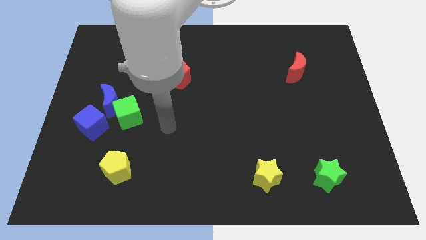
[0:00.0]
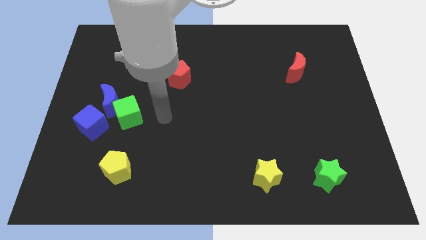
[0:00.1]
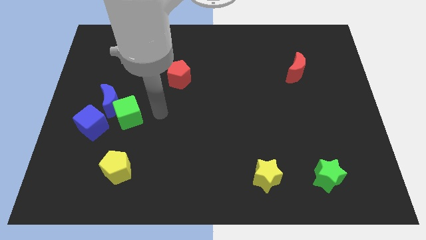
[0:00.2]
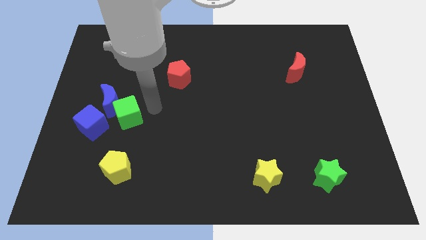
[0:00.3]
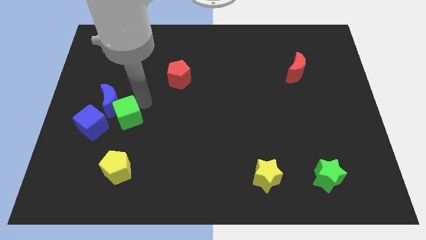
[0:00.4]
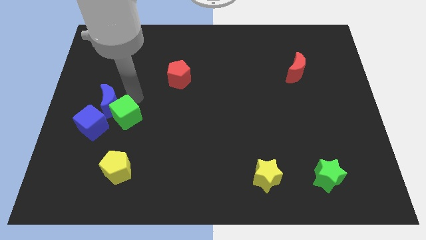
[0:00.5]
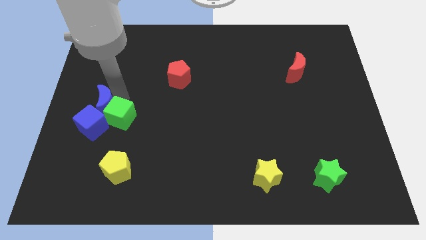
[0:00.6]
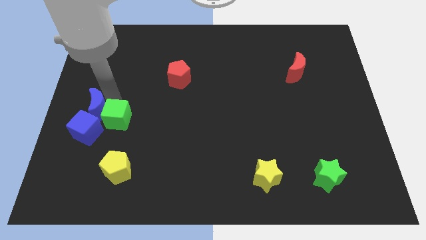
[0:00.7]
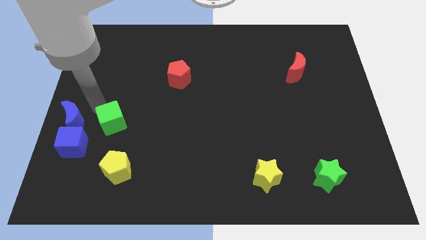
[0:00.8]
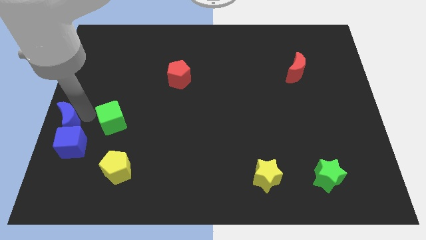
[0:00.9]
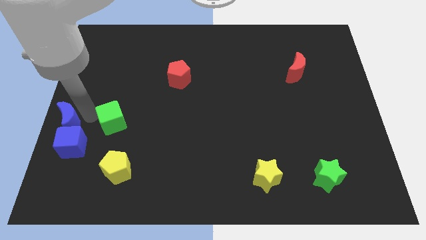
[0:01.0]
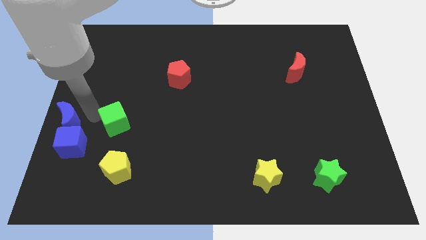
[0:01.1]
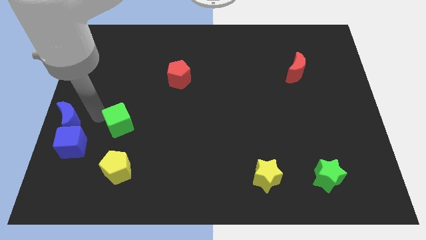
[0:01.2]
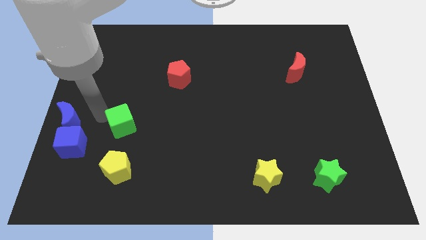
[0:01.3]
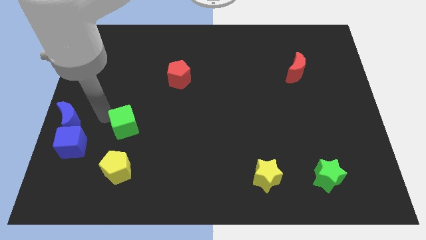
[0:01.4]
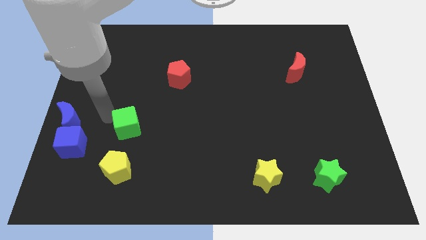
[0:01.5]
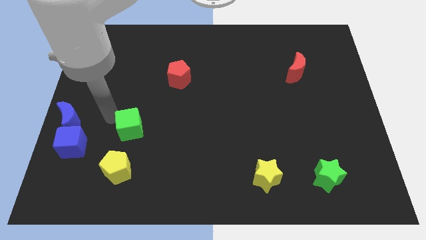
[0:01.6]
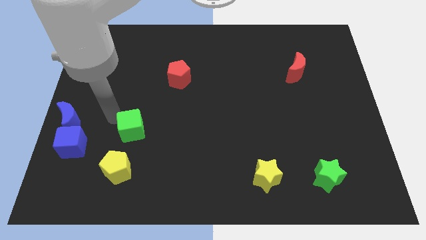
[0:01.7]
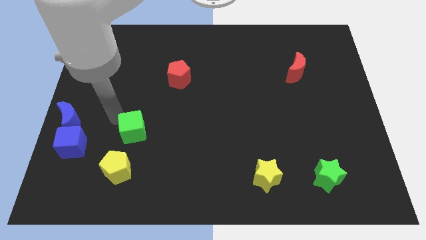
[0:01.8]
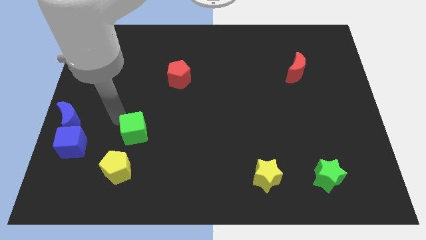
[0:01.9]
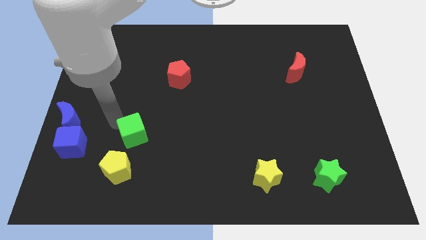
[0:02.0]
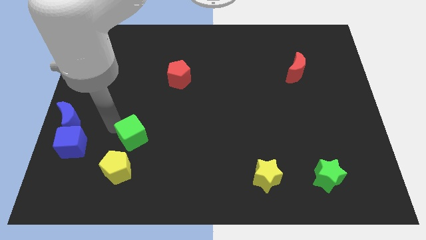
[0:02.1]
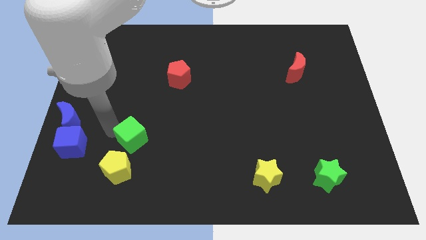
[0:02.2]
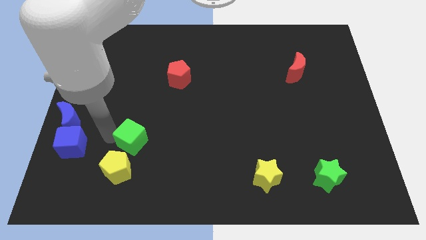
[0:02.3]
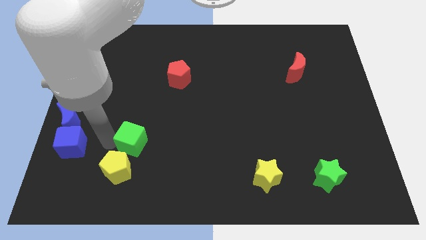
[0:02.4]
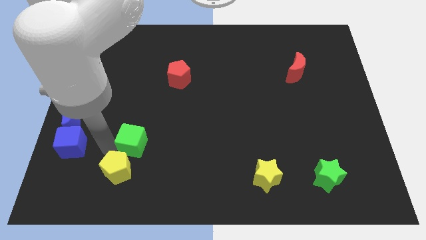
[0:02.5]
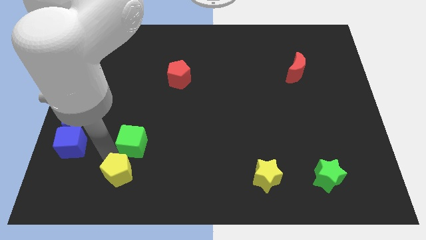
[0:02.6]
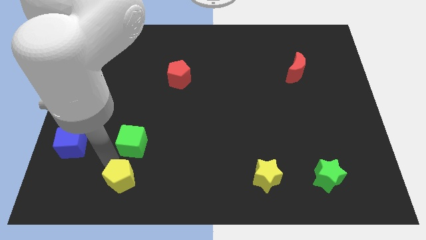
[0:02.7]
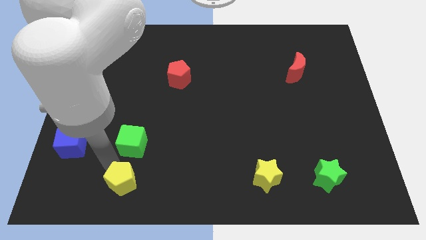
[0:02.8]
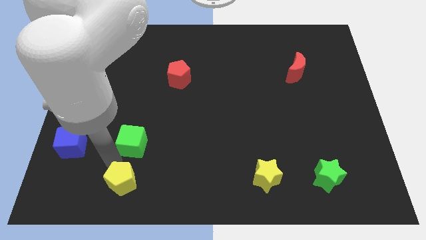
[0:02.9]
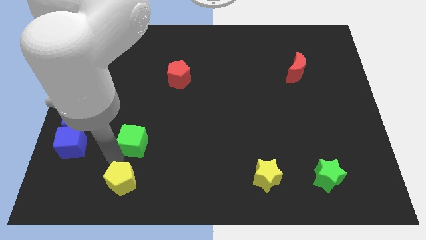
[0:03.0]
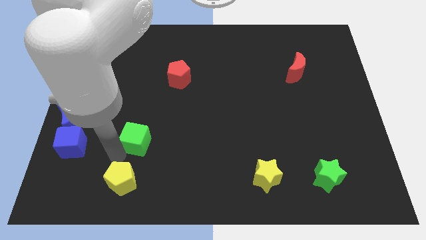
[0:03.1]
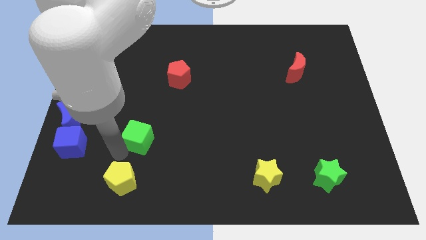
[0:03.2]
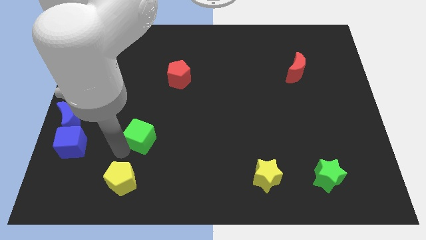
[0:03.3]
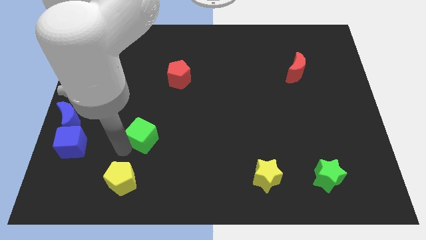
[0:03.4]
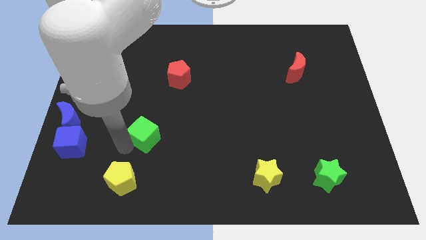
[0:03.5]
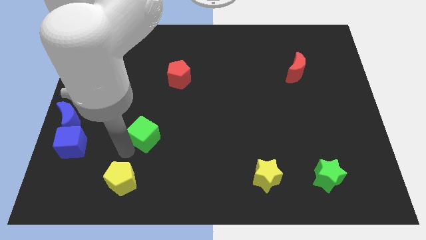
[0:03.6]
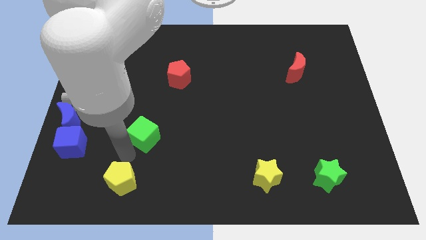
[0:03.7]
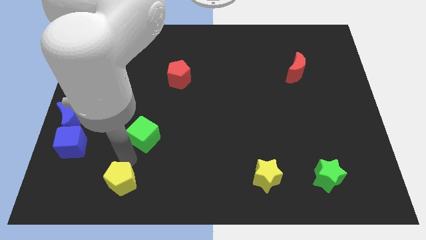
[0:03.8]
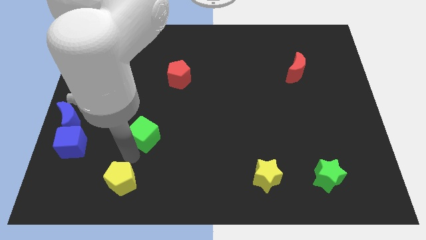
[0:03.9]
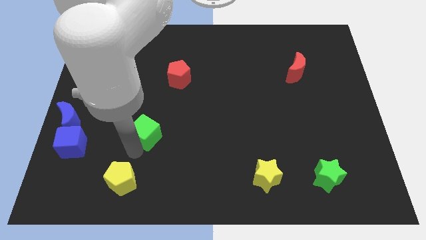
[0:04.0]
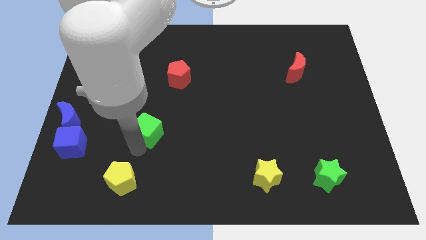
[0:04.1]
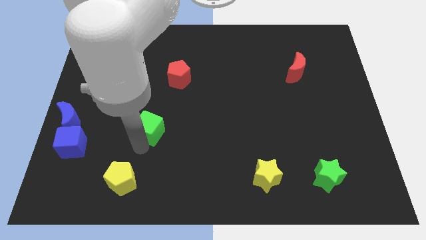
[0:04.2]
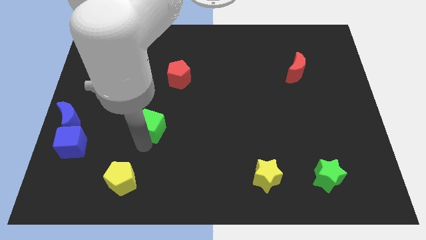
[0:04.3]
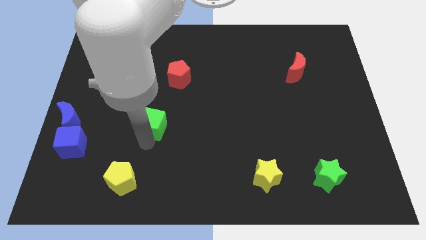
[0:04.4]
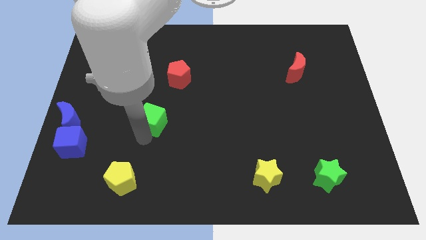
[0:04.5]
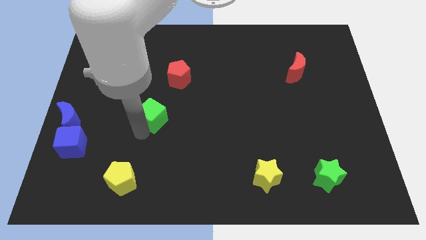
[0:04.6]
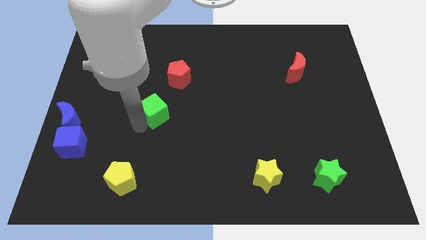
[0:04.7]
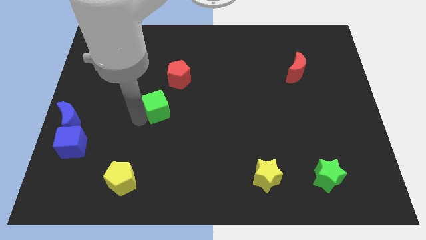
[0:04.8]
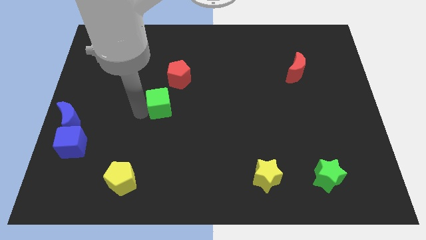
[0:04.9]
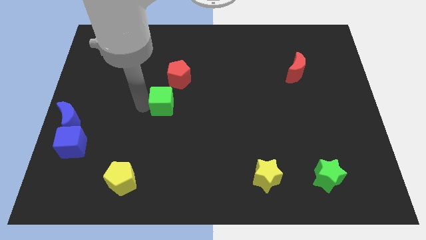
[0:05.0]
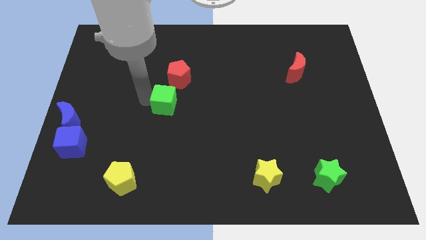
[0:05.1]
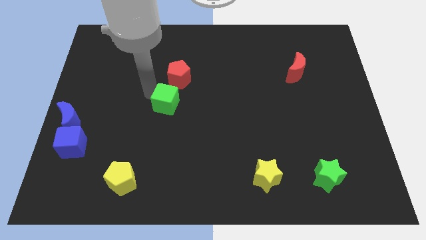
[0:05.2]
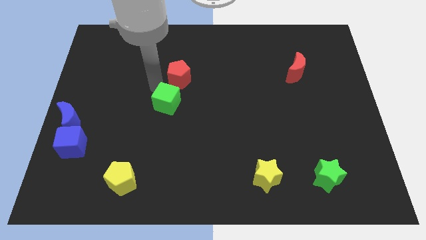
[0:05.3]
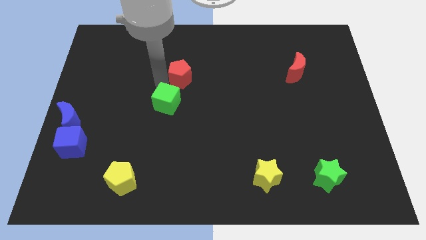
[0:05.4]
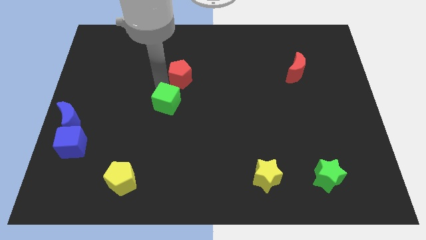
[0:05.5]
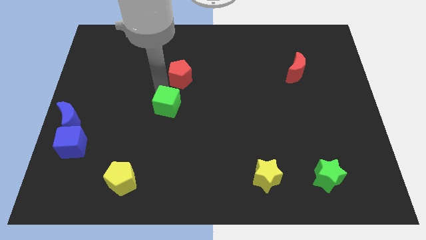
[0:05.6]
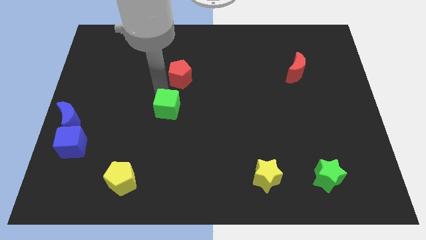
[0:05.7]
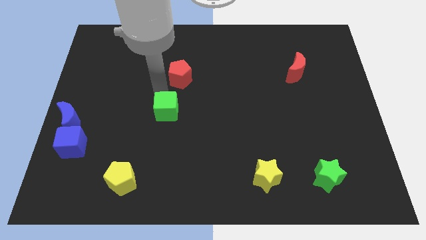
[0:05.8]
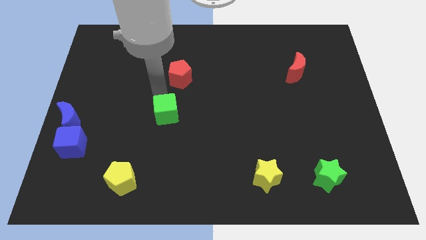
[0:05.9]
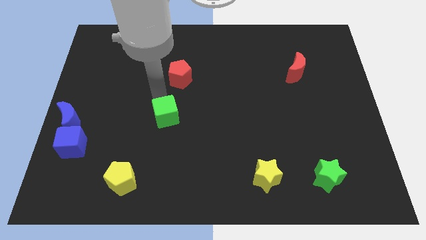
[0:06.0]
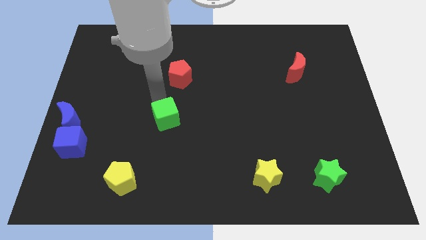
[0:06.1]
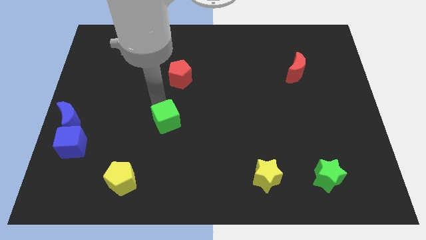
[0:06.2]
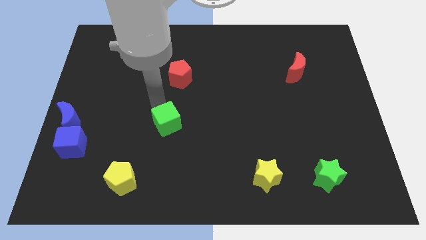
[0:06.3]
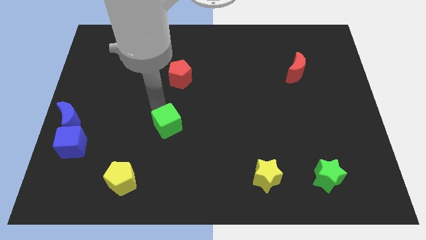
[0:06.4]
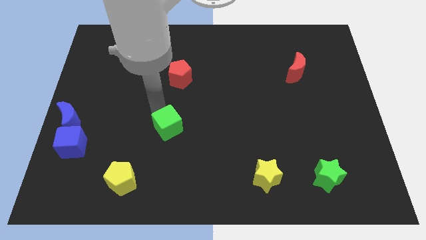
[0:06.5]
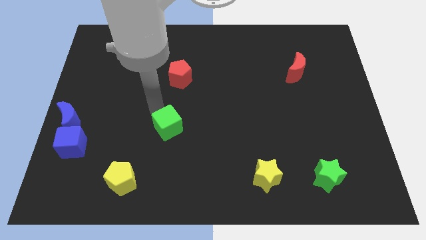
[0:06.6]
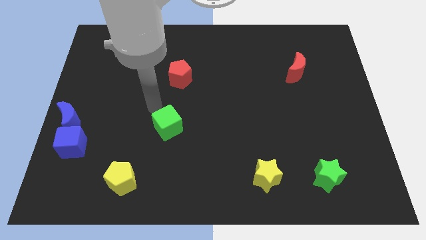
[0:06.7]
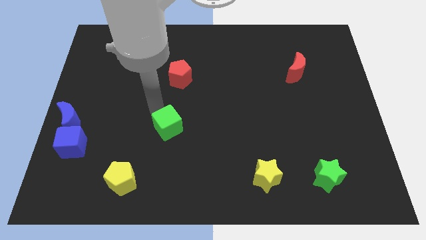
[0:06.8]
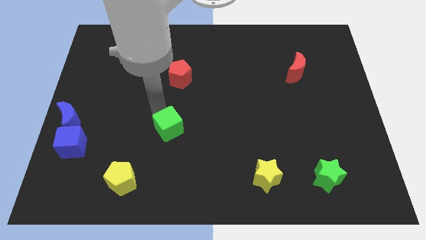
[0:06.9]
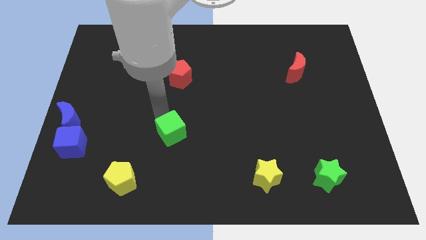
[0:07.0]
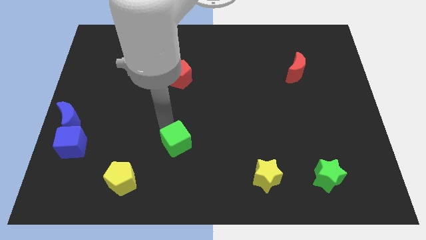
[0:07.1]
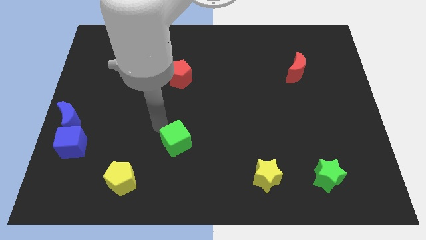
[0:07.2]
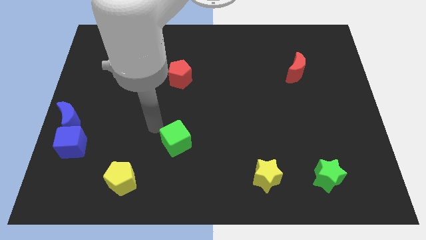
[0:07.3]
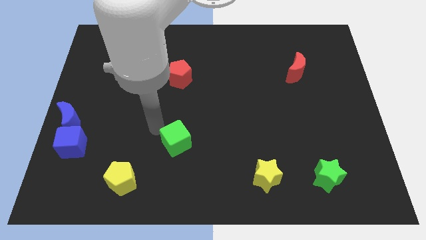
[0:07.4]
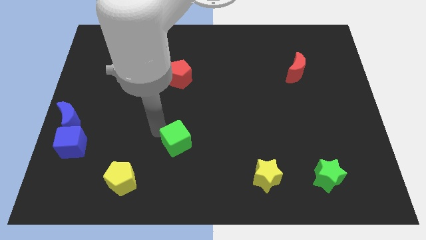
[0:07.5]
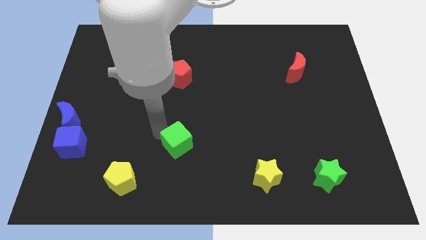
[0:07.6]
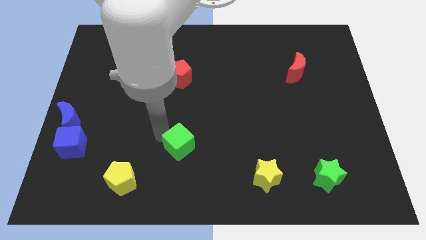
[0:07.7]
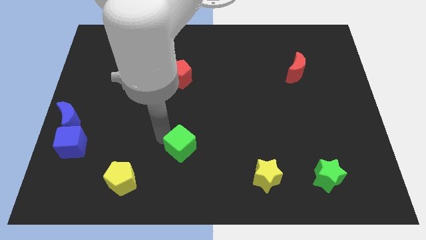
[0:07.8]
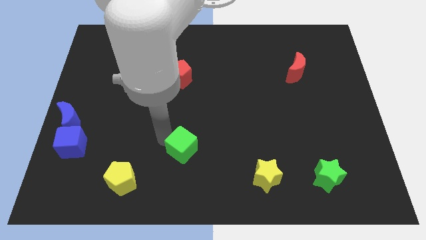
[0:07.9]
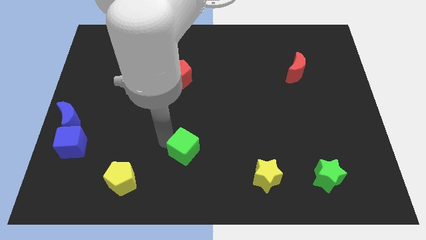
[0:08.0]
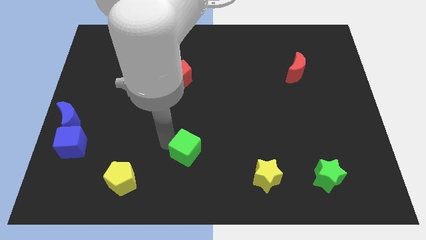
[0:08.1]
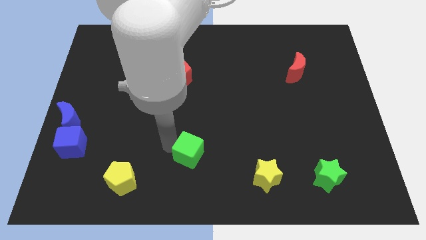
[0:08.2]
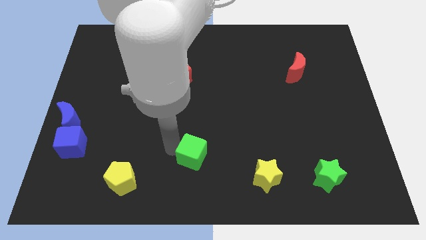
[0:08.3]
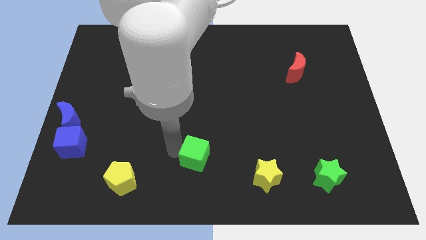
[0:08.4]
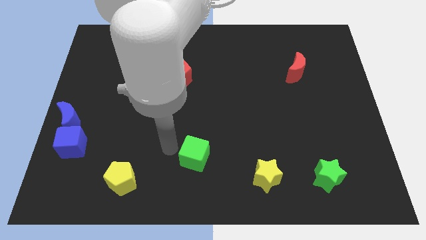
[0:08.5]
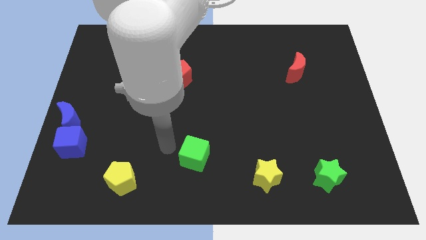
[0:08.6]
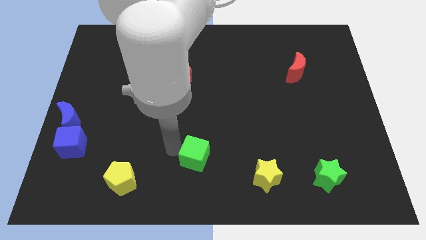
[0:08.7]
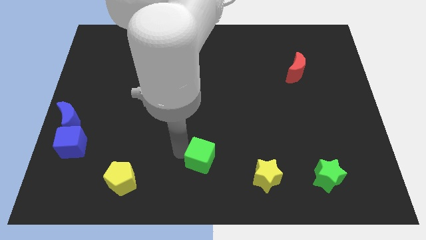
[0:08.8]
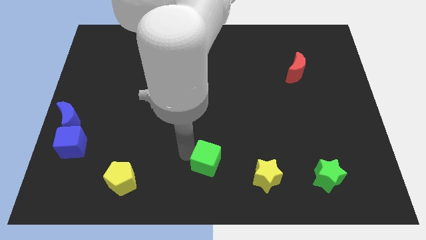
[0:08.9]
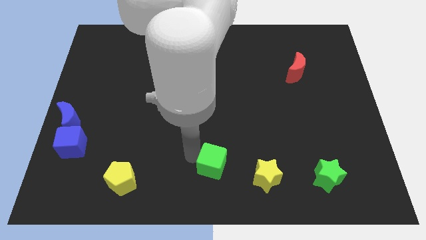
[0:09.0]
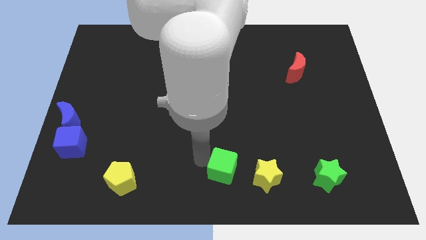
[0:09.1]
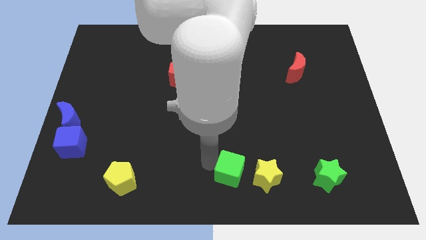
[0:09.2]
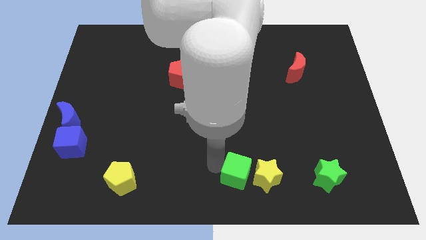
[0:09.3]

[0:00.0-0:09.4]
slide the green cube next to the yellow star
